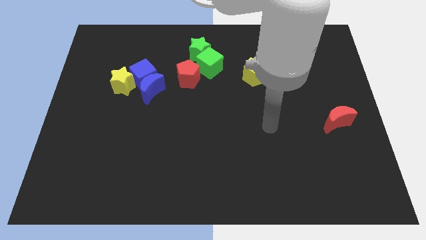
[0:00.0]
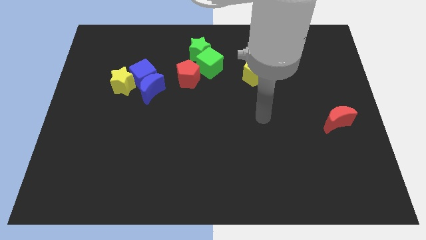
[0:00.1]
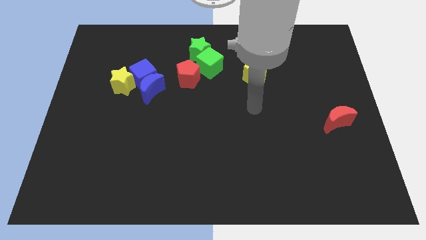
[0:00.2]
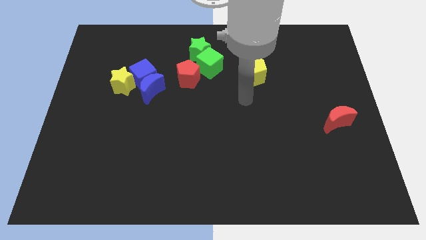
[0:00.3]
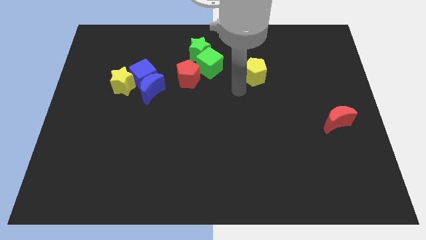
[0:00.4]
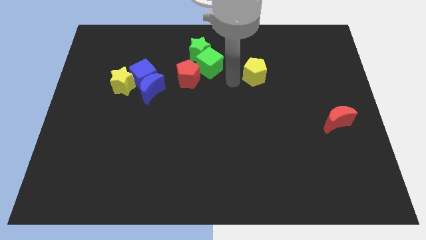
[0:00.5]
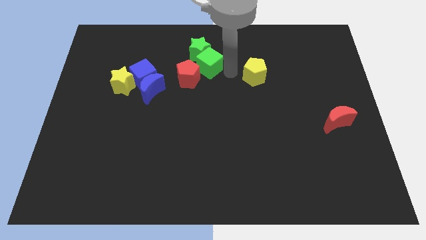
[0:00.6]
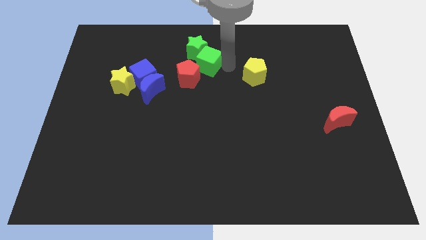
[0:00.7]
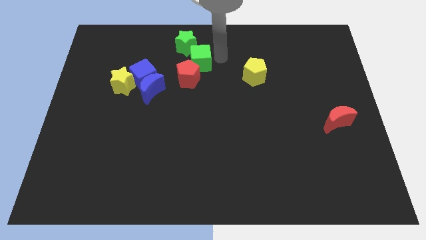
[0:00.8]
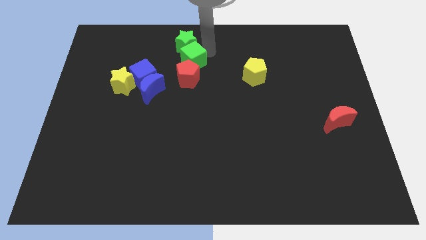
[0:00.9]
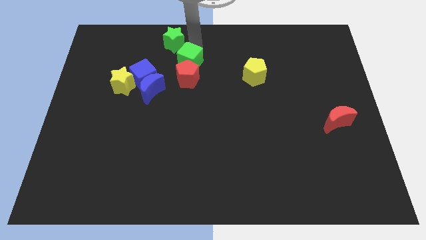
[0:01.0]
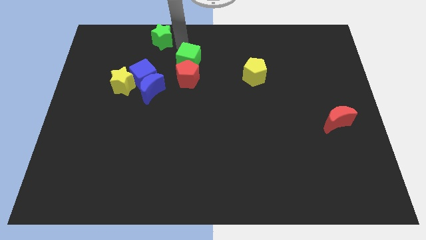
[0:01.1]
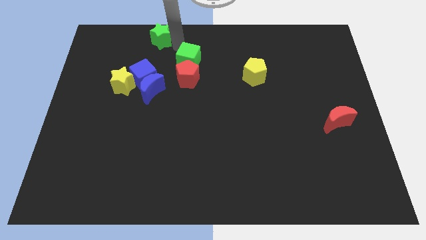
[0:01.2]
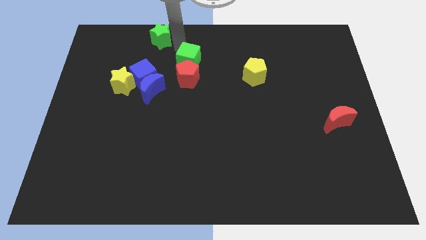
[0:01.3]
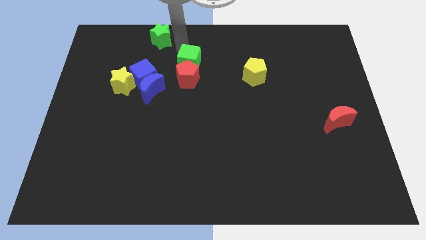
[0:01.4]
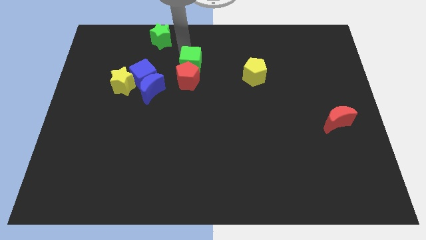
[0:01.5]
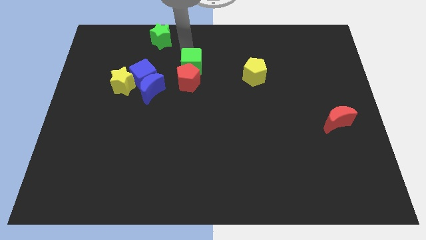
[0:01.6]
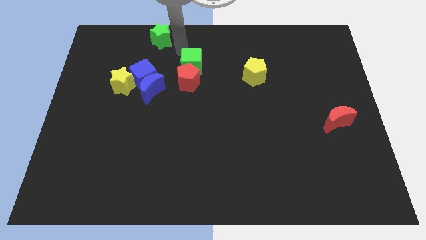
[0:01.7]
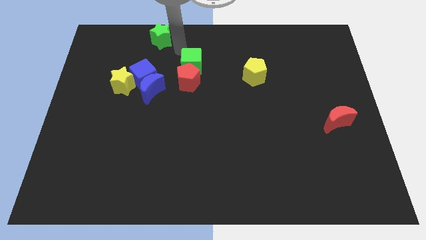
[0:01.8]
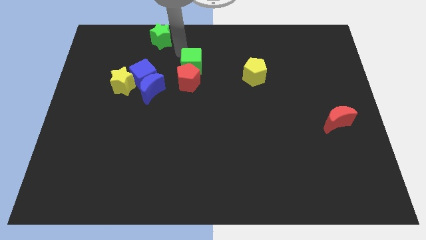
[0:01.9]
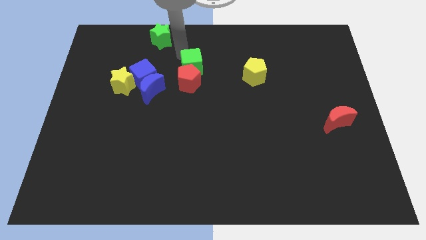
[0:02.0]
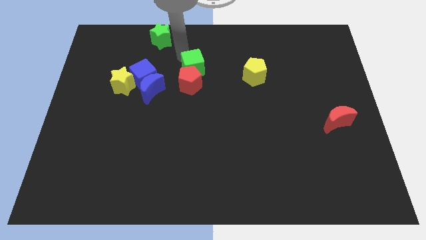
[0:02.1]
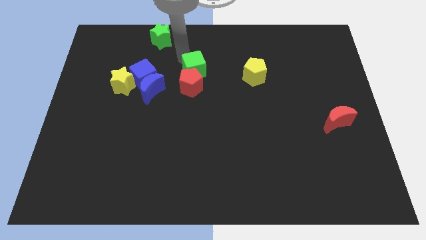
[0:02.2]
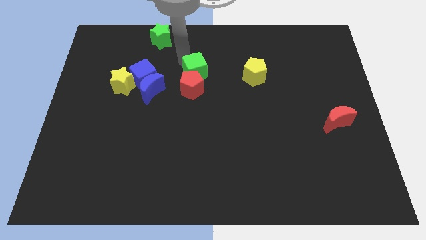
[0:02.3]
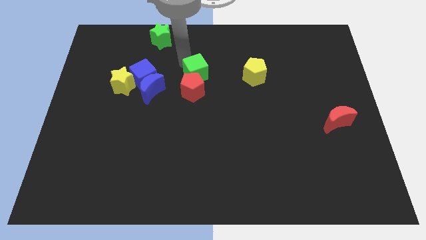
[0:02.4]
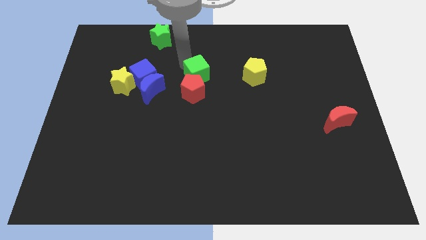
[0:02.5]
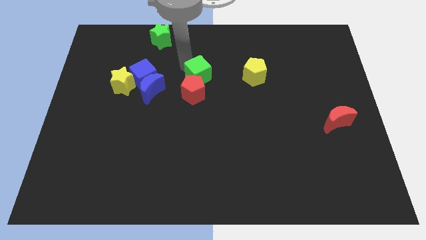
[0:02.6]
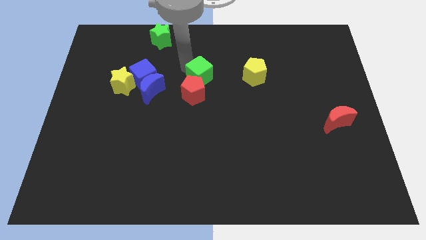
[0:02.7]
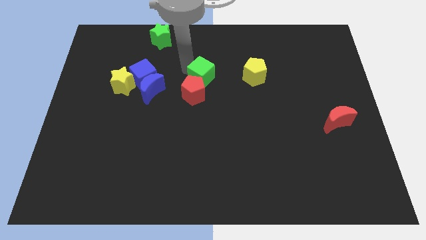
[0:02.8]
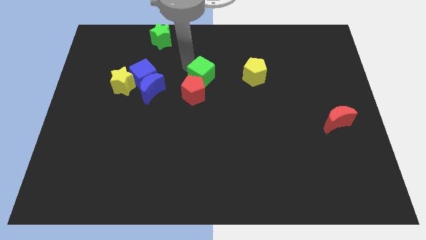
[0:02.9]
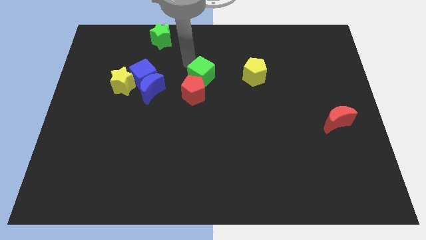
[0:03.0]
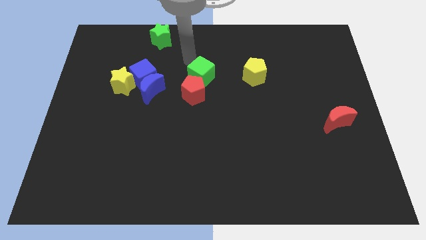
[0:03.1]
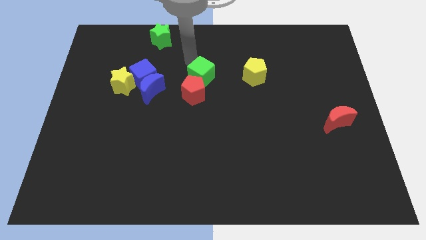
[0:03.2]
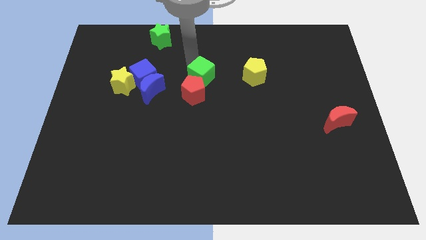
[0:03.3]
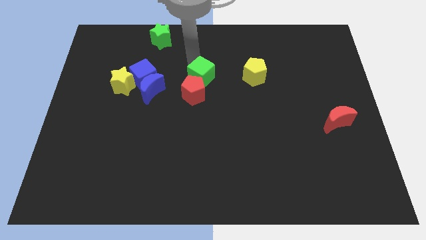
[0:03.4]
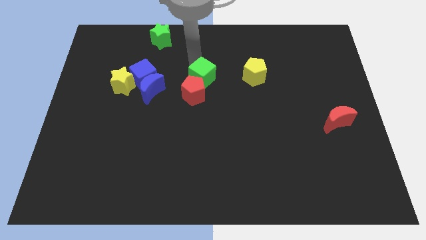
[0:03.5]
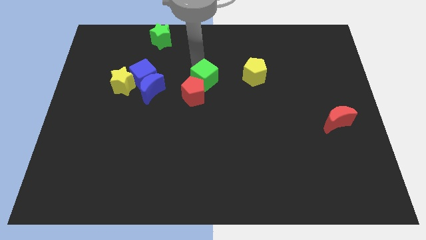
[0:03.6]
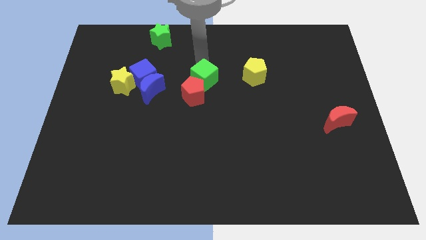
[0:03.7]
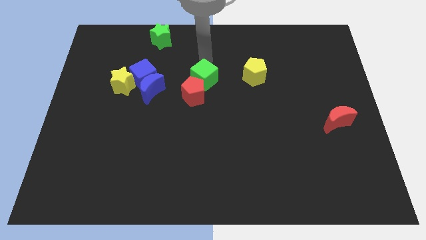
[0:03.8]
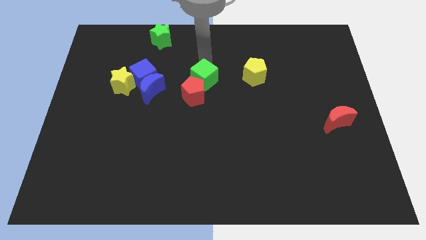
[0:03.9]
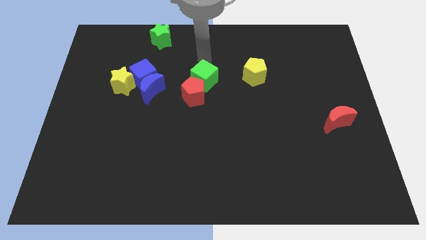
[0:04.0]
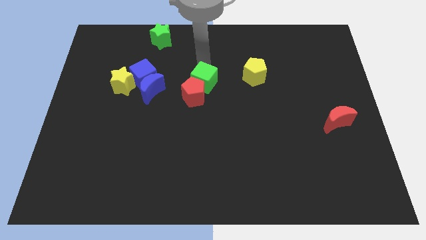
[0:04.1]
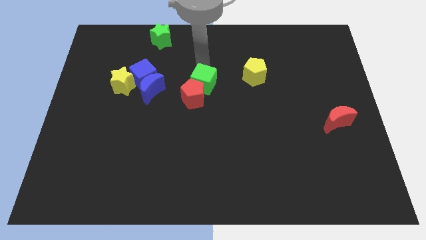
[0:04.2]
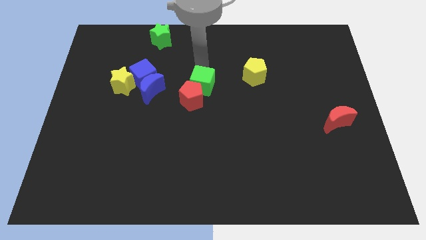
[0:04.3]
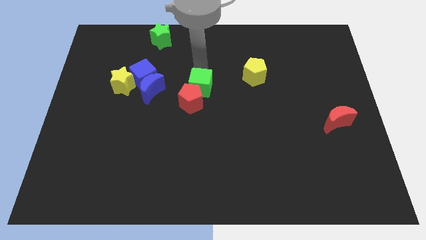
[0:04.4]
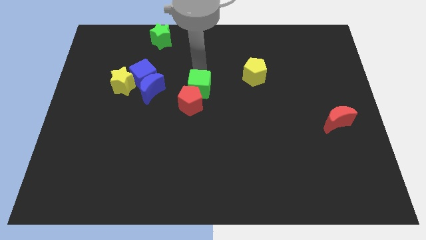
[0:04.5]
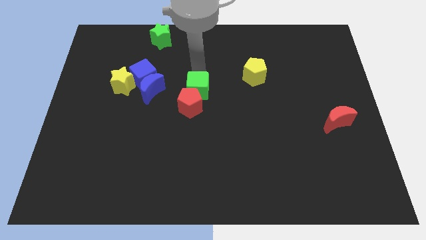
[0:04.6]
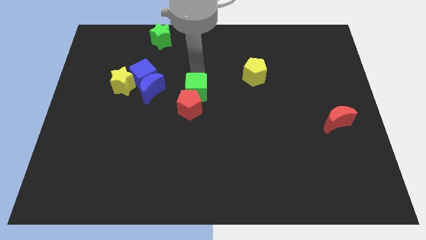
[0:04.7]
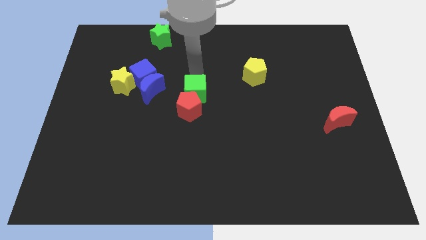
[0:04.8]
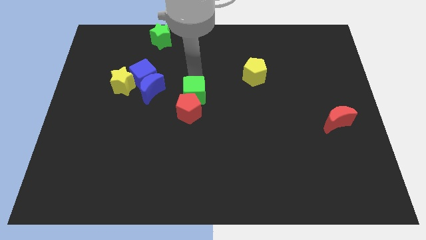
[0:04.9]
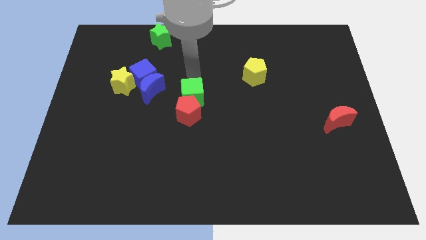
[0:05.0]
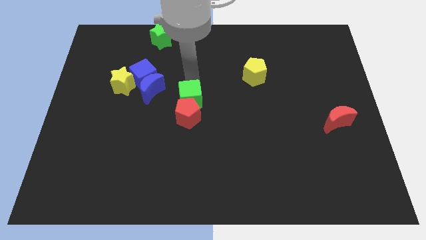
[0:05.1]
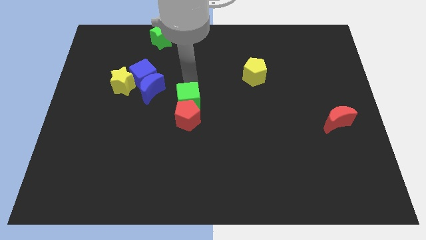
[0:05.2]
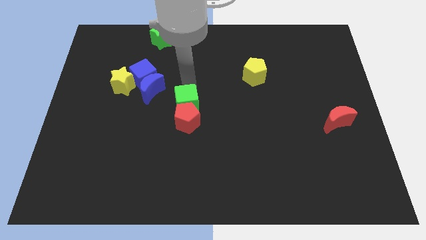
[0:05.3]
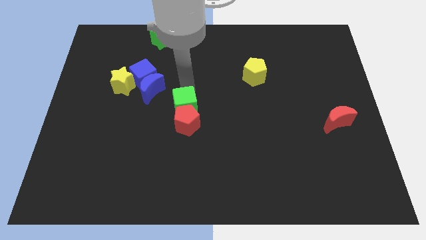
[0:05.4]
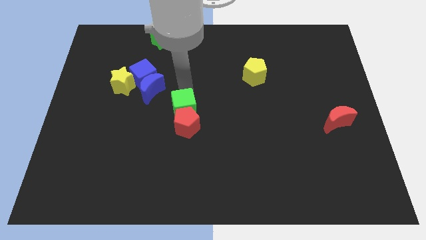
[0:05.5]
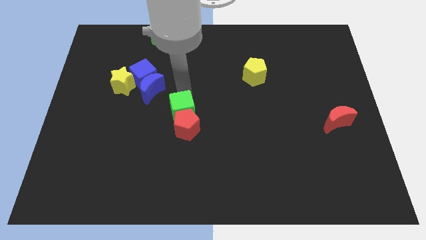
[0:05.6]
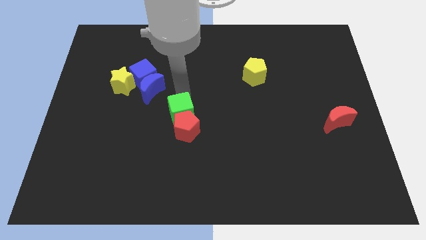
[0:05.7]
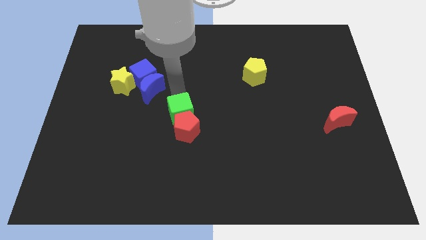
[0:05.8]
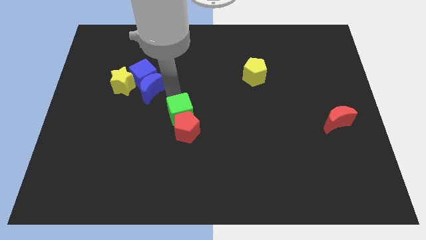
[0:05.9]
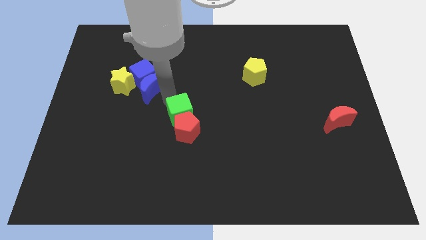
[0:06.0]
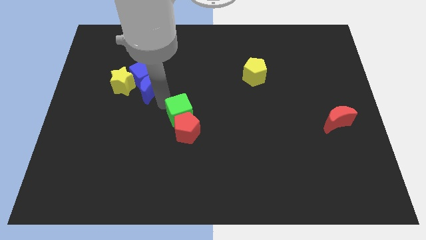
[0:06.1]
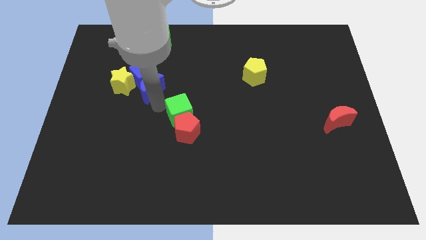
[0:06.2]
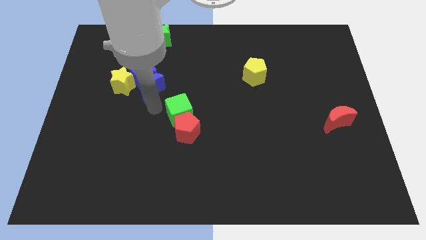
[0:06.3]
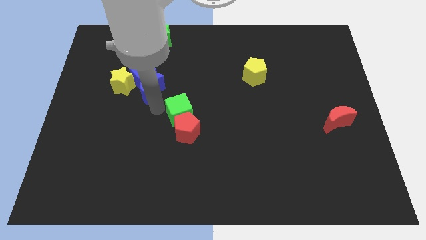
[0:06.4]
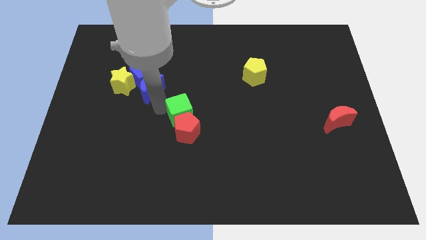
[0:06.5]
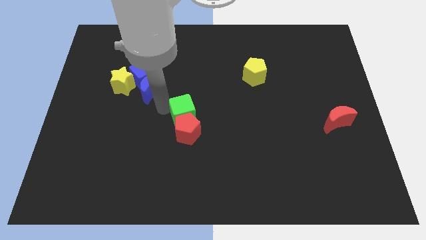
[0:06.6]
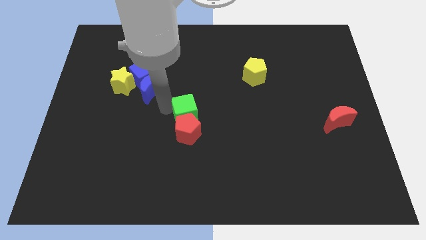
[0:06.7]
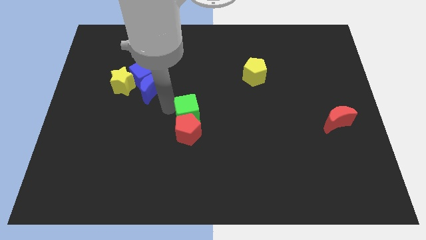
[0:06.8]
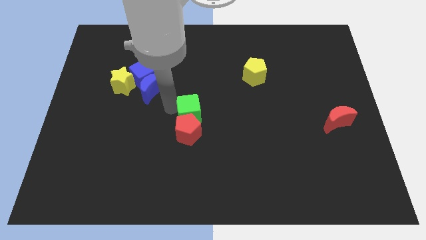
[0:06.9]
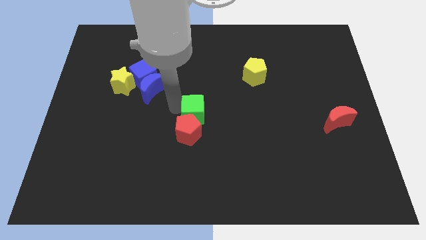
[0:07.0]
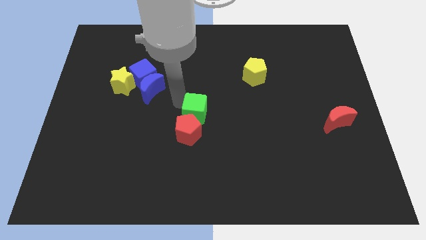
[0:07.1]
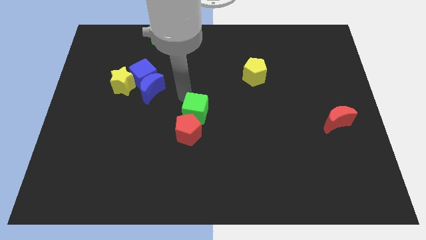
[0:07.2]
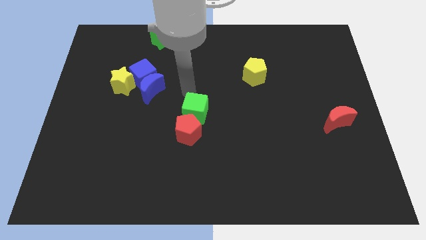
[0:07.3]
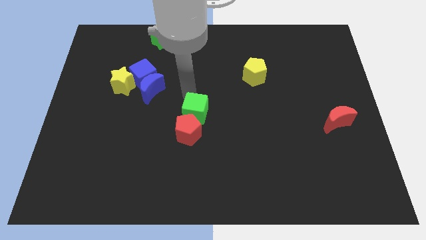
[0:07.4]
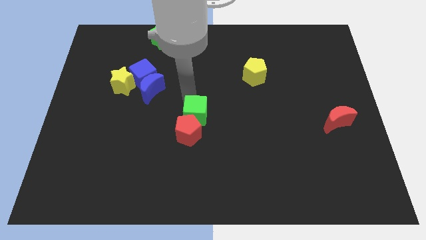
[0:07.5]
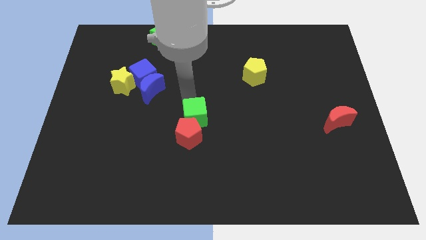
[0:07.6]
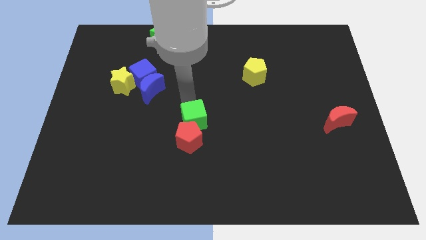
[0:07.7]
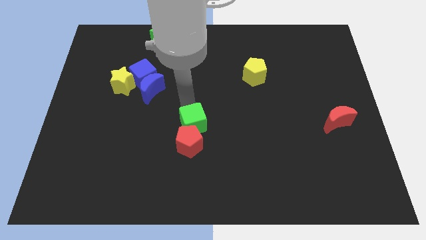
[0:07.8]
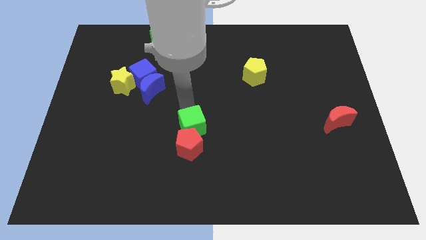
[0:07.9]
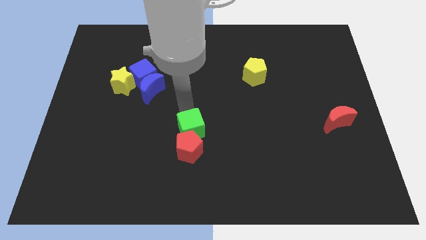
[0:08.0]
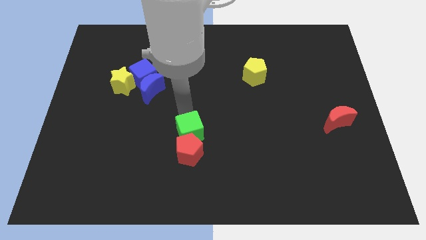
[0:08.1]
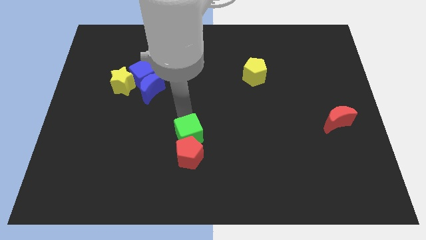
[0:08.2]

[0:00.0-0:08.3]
move the green cube downwards
